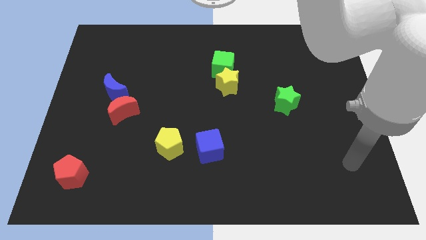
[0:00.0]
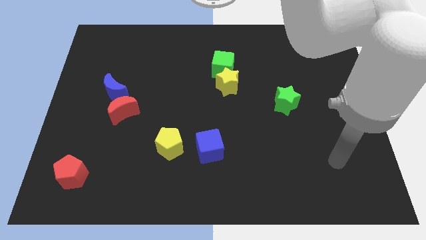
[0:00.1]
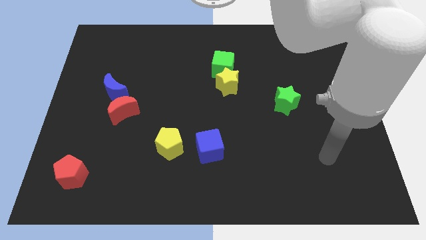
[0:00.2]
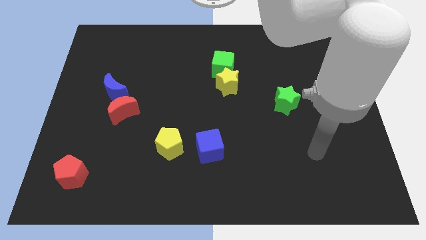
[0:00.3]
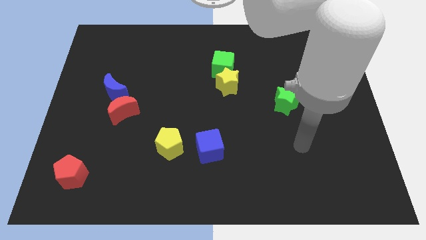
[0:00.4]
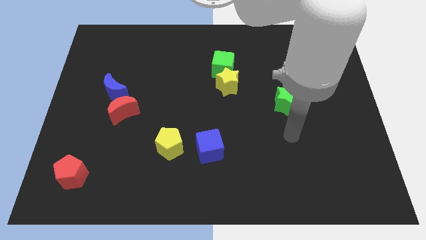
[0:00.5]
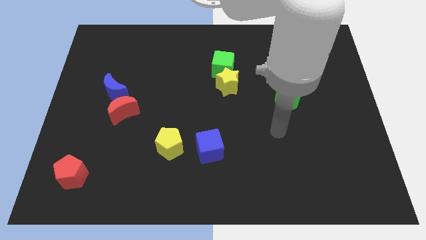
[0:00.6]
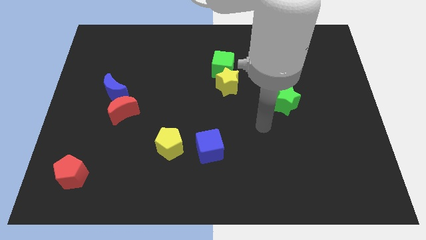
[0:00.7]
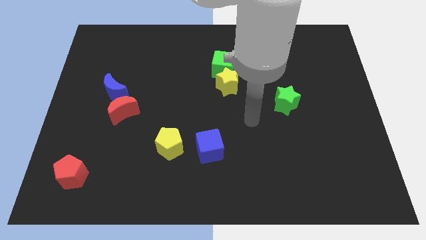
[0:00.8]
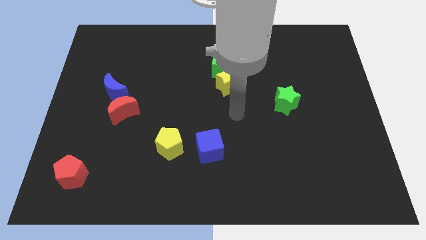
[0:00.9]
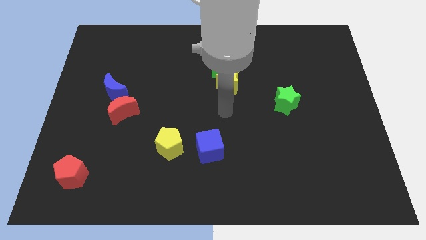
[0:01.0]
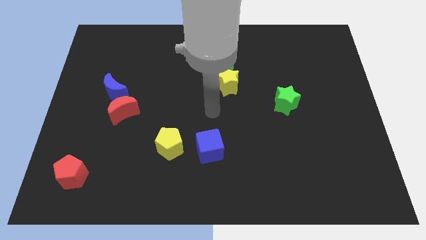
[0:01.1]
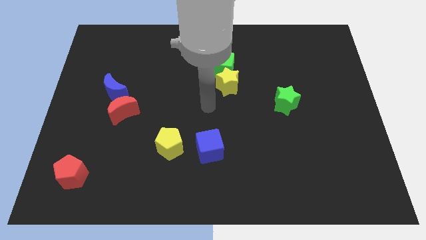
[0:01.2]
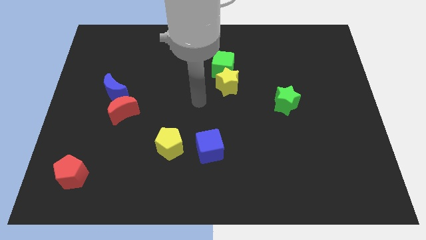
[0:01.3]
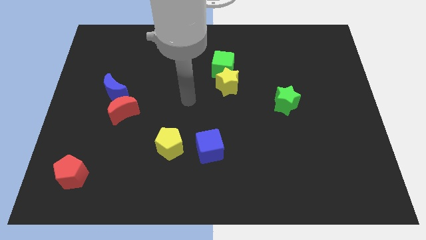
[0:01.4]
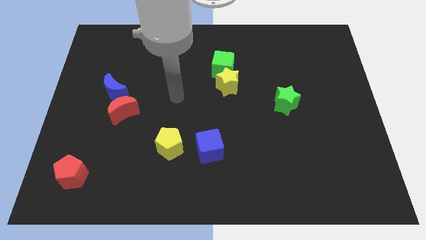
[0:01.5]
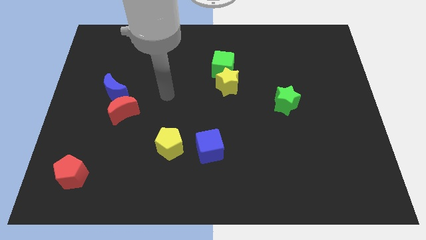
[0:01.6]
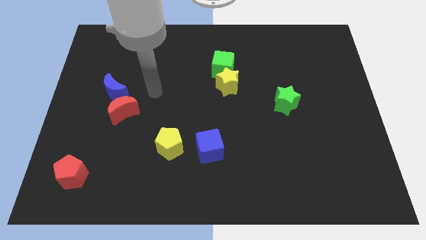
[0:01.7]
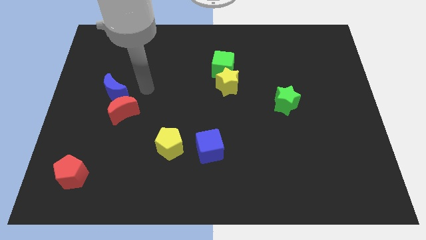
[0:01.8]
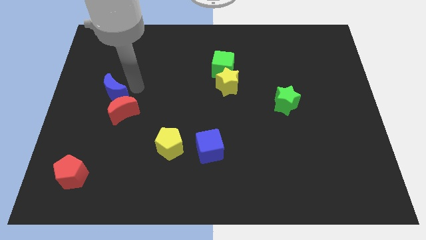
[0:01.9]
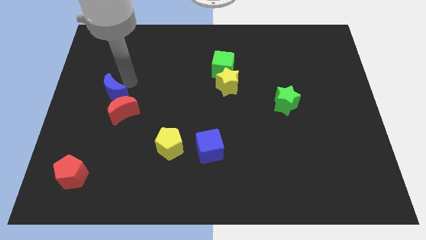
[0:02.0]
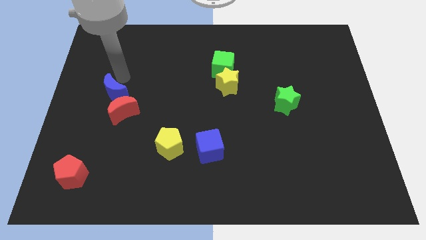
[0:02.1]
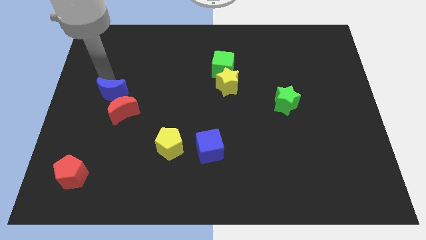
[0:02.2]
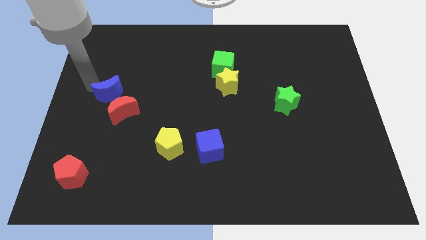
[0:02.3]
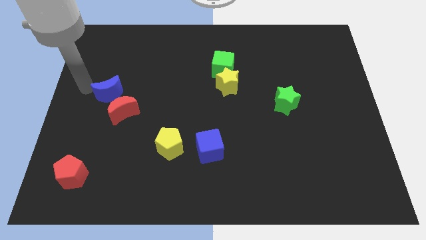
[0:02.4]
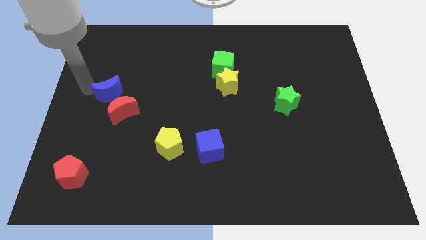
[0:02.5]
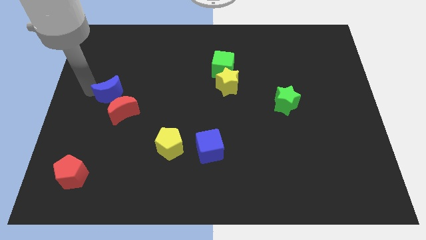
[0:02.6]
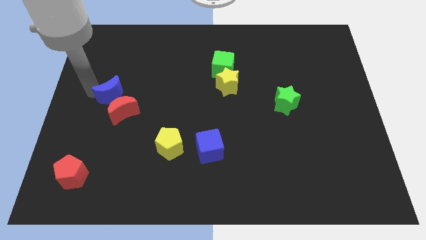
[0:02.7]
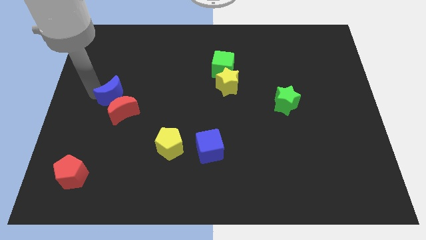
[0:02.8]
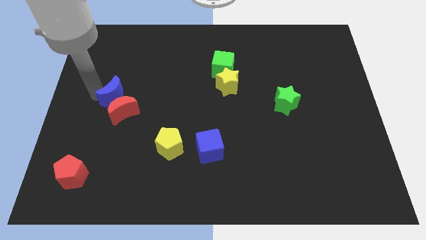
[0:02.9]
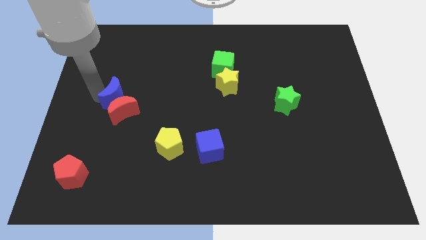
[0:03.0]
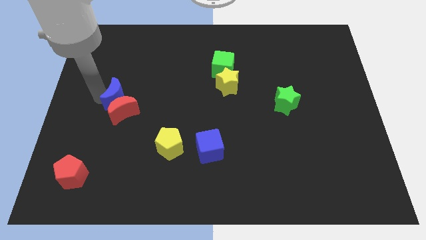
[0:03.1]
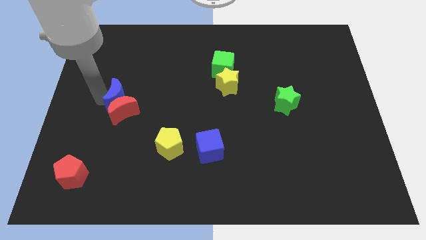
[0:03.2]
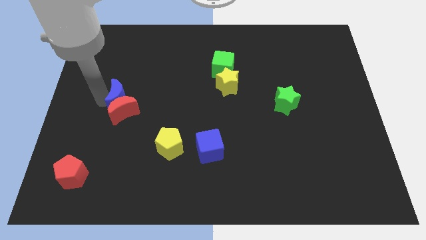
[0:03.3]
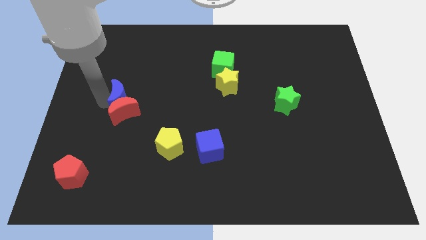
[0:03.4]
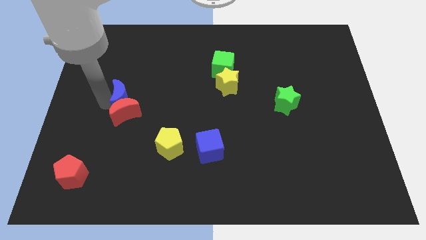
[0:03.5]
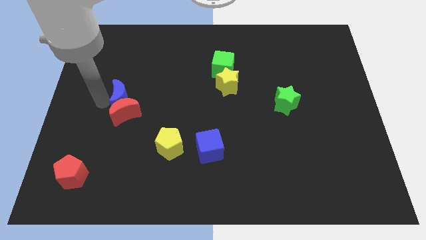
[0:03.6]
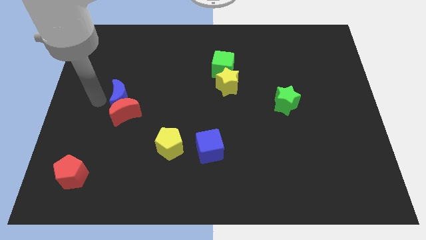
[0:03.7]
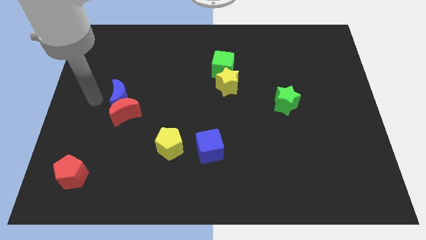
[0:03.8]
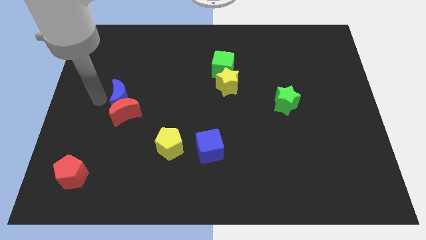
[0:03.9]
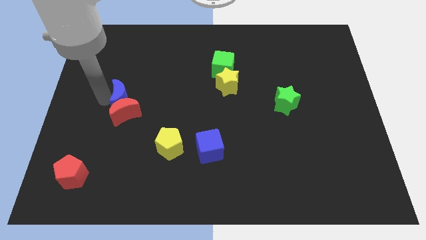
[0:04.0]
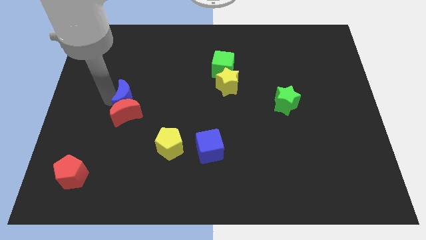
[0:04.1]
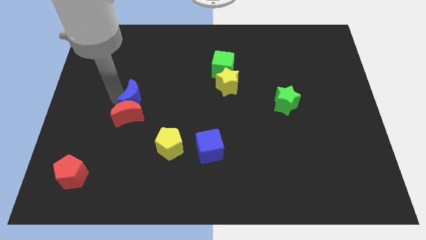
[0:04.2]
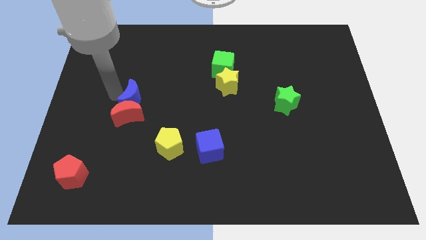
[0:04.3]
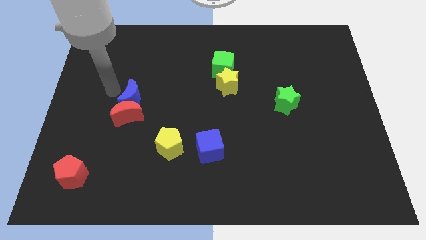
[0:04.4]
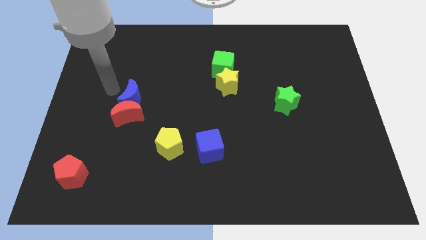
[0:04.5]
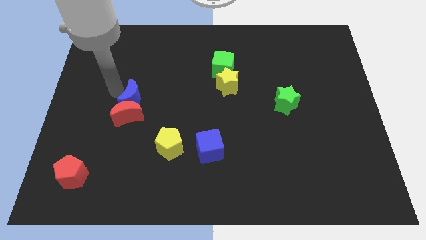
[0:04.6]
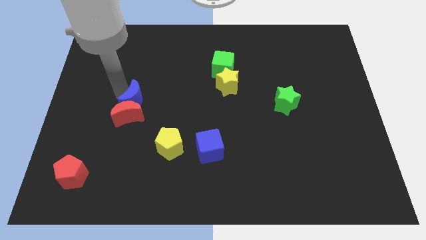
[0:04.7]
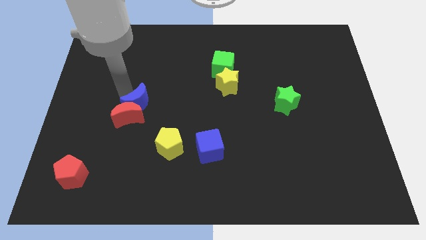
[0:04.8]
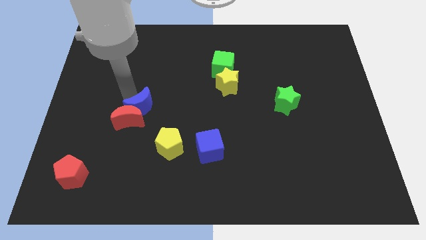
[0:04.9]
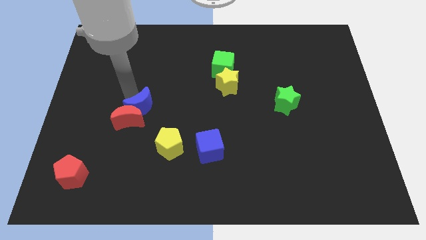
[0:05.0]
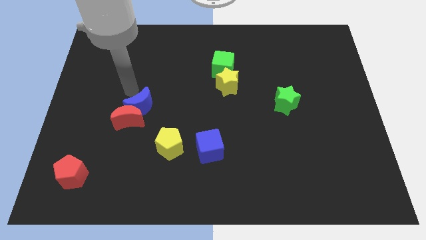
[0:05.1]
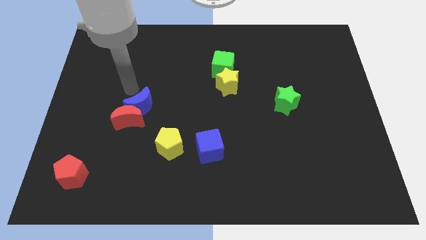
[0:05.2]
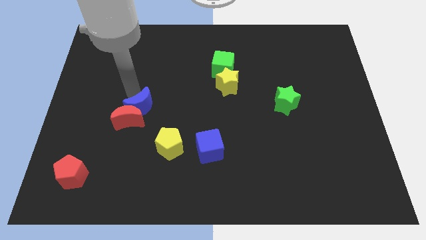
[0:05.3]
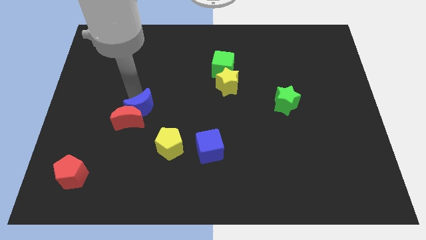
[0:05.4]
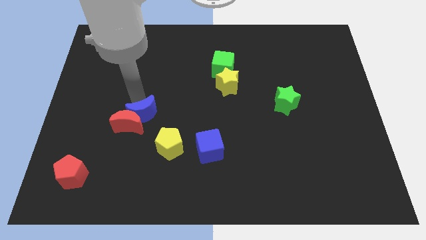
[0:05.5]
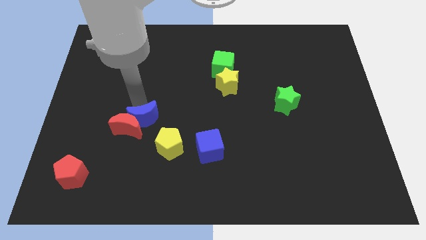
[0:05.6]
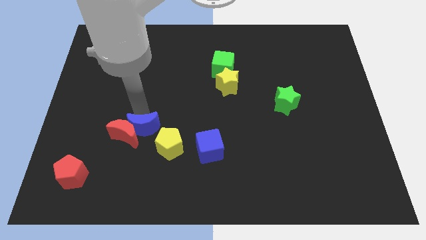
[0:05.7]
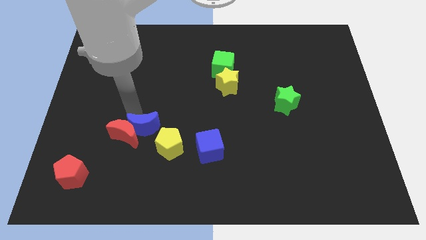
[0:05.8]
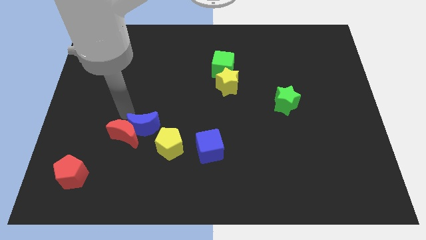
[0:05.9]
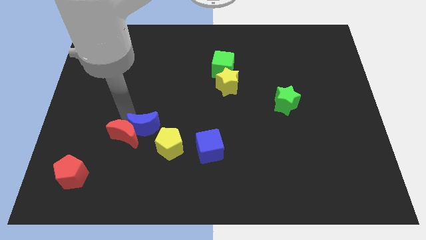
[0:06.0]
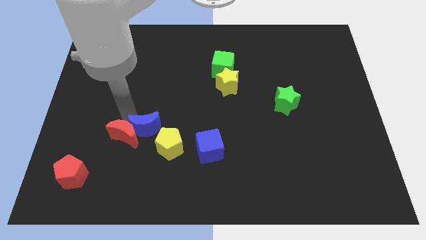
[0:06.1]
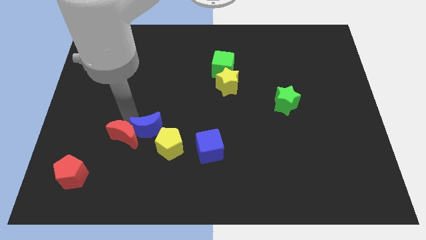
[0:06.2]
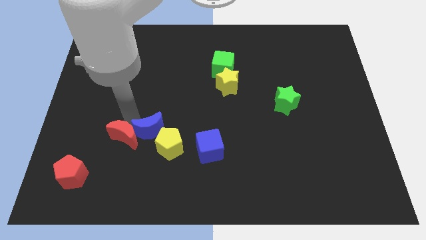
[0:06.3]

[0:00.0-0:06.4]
push the blue moon close to the yellow pentagon

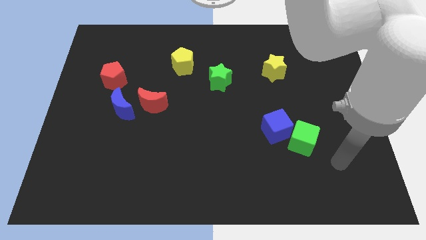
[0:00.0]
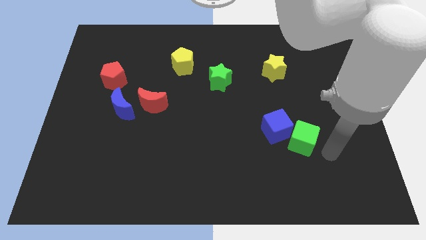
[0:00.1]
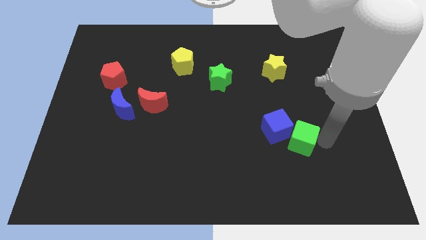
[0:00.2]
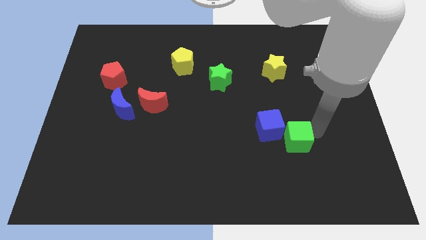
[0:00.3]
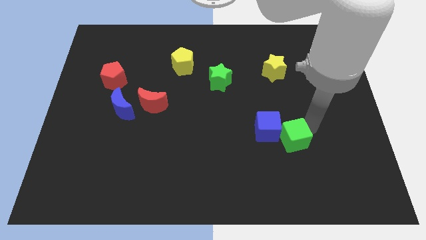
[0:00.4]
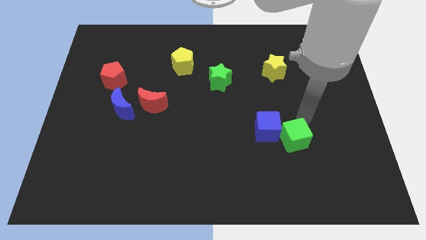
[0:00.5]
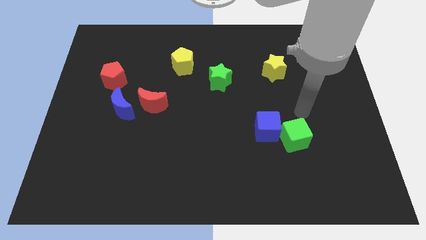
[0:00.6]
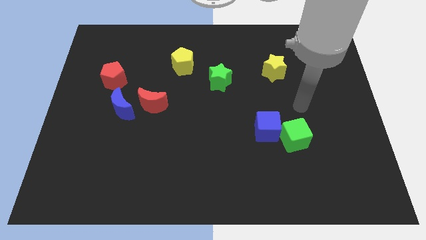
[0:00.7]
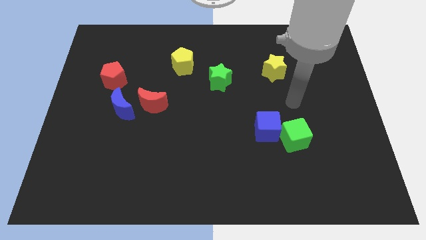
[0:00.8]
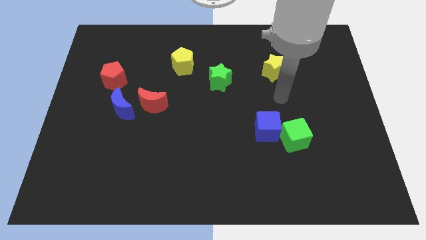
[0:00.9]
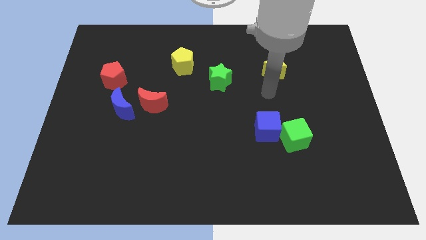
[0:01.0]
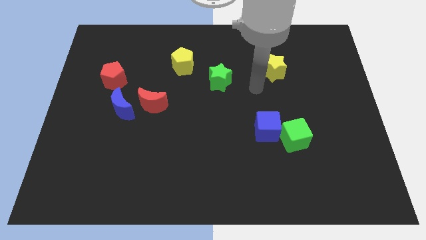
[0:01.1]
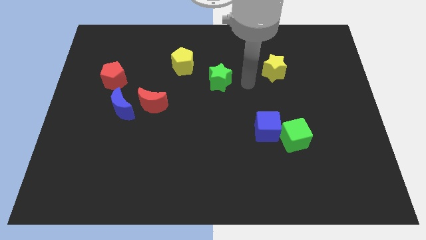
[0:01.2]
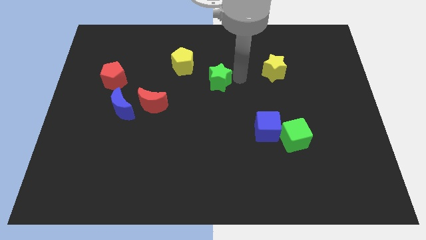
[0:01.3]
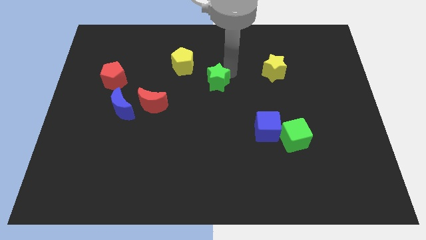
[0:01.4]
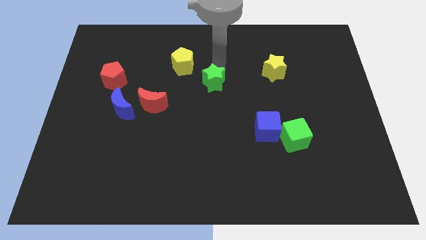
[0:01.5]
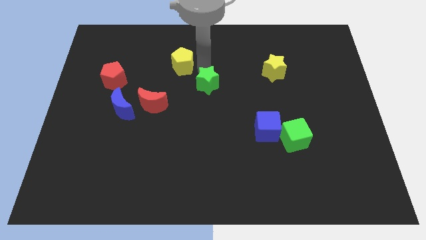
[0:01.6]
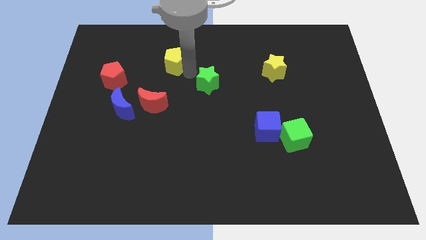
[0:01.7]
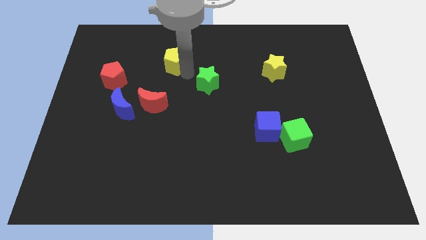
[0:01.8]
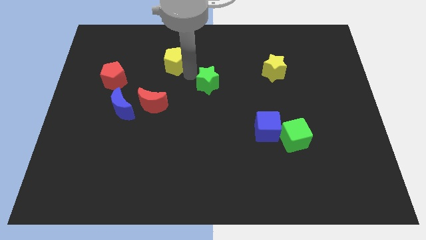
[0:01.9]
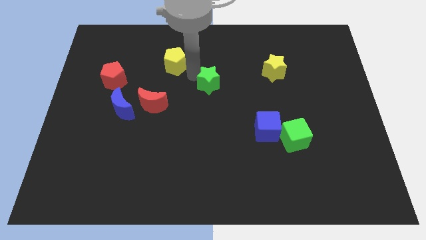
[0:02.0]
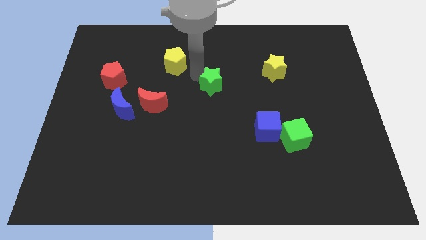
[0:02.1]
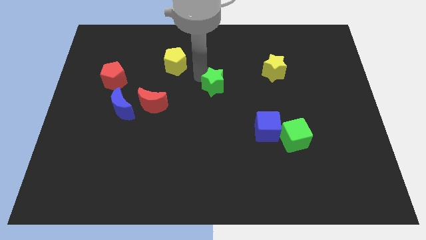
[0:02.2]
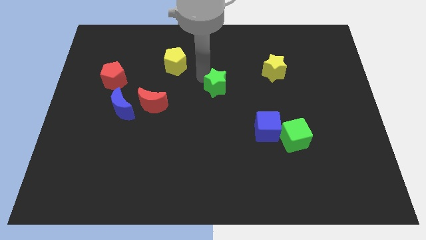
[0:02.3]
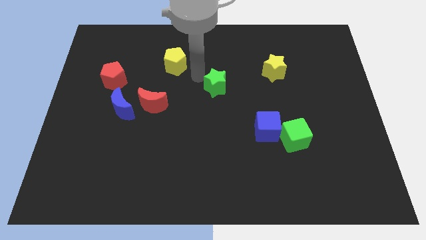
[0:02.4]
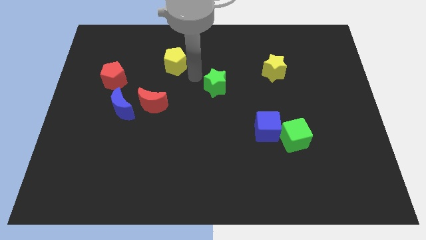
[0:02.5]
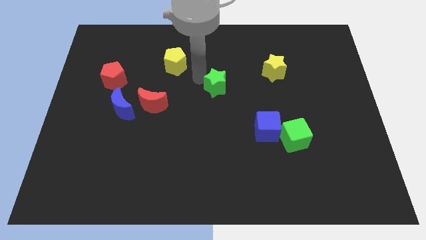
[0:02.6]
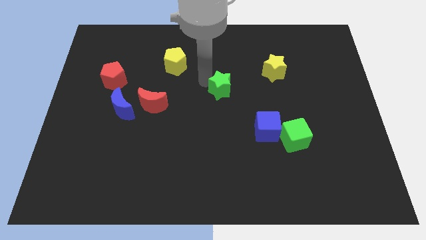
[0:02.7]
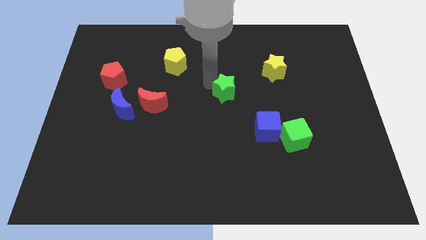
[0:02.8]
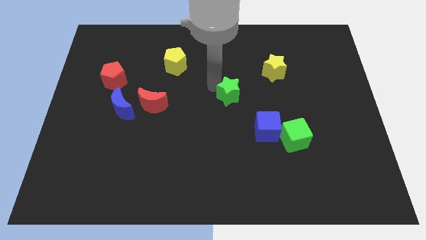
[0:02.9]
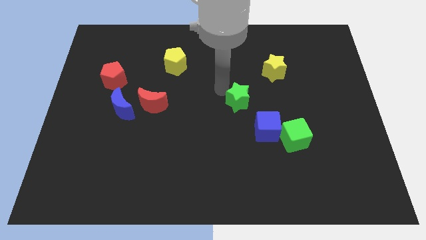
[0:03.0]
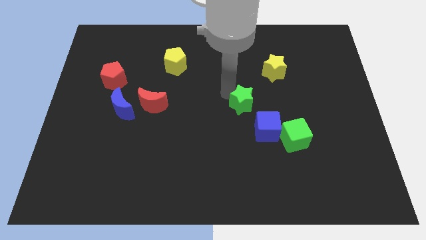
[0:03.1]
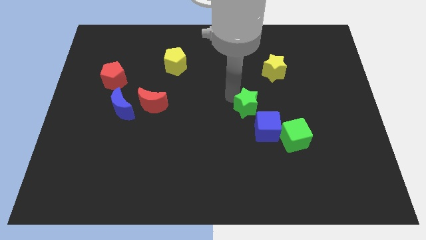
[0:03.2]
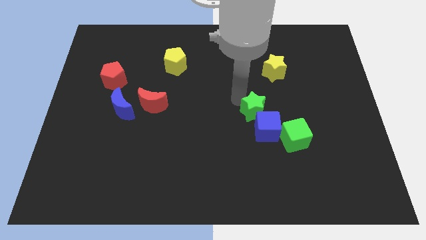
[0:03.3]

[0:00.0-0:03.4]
push the green star next to the blue cube
